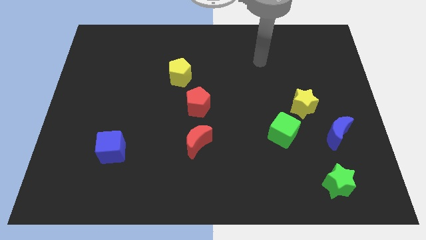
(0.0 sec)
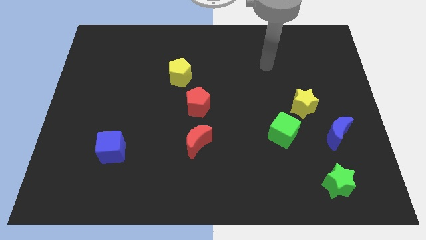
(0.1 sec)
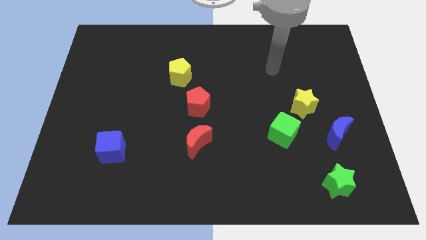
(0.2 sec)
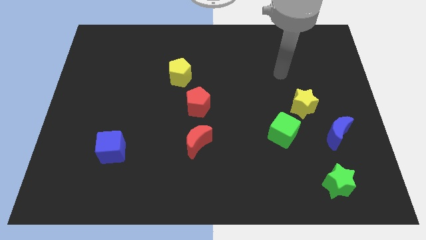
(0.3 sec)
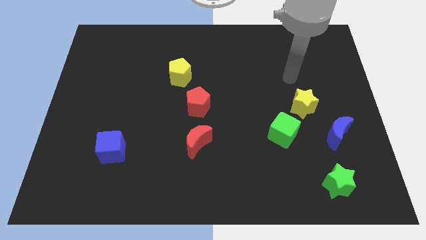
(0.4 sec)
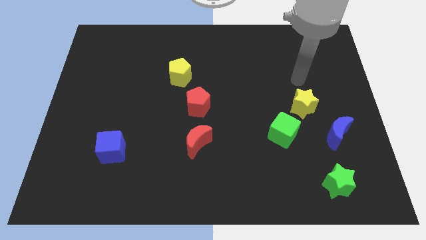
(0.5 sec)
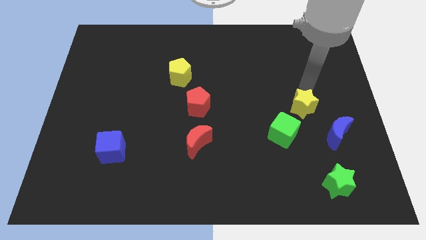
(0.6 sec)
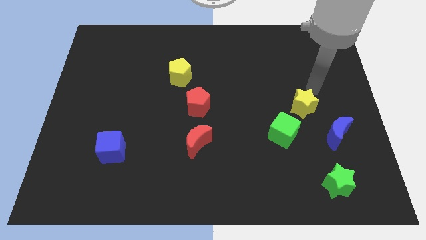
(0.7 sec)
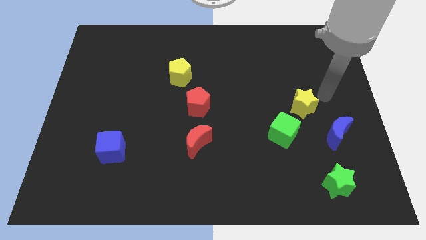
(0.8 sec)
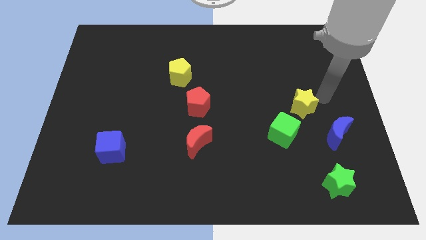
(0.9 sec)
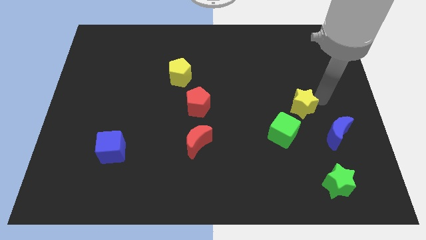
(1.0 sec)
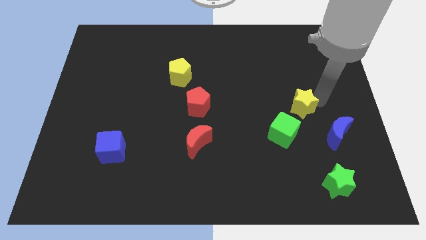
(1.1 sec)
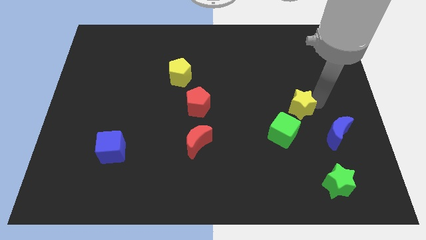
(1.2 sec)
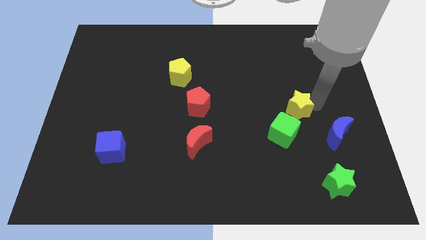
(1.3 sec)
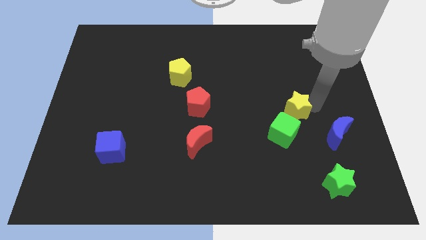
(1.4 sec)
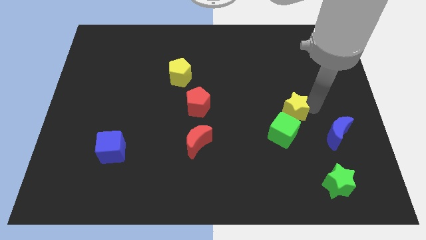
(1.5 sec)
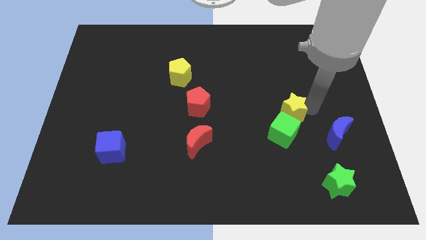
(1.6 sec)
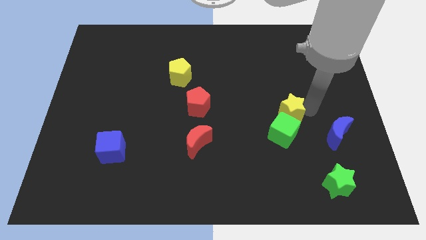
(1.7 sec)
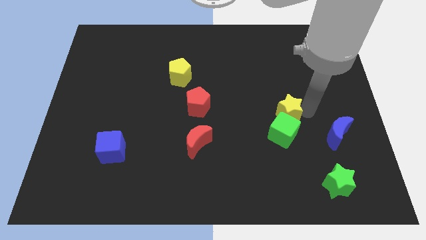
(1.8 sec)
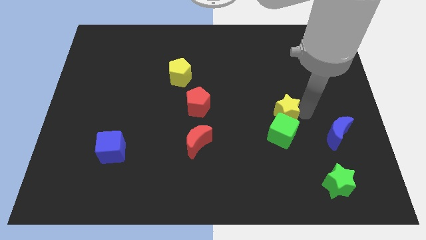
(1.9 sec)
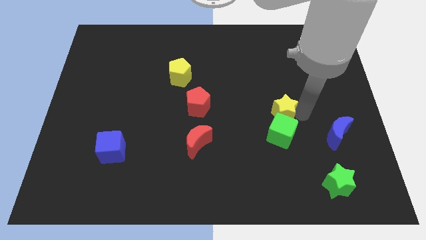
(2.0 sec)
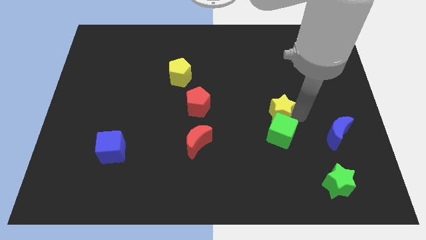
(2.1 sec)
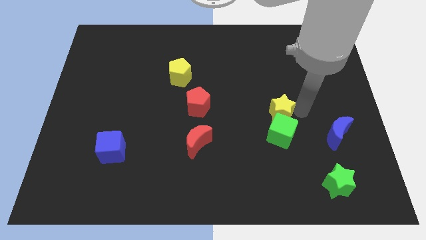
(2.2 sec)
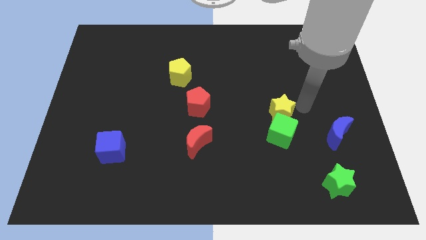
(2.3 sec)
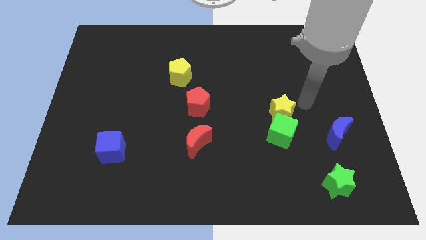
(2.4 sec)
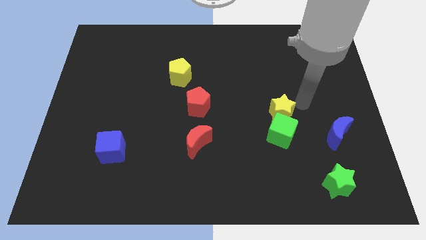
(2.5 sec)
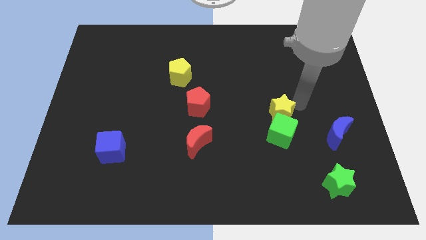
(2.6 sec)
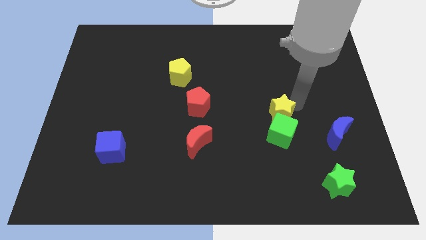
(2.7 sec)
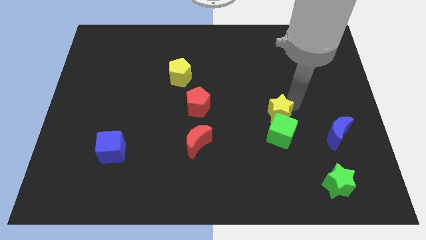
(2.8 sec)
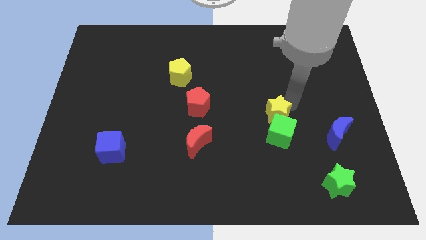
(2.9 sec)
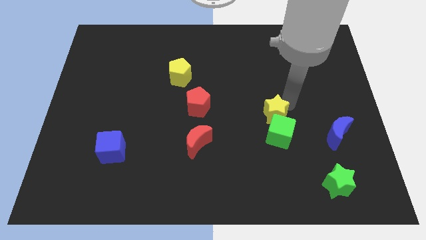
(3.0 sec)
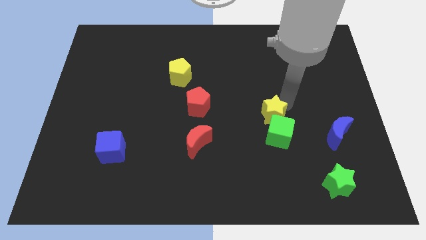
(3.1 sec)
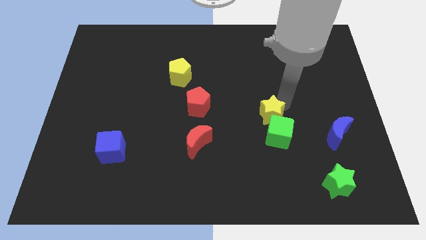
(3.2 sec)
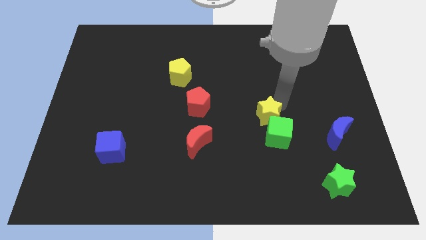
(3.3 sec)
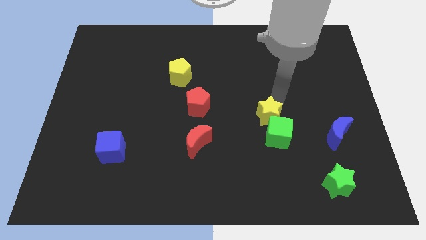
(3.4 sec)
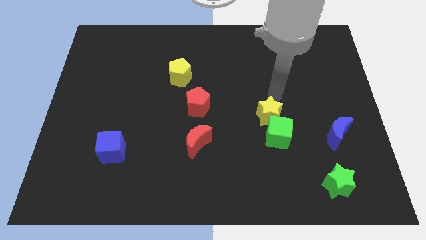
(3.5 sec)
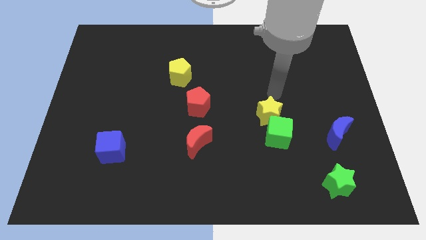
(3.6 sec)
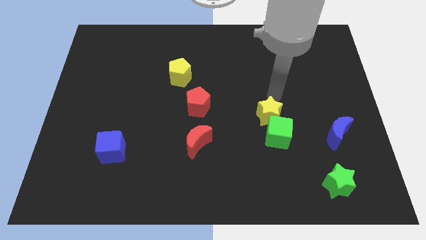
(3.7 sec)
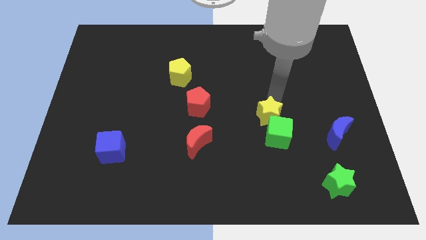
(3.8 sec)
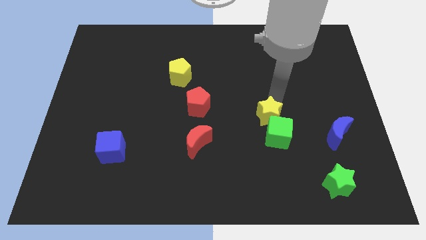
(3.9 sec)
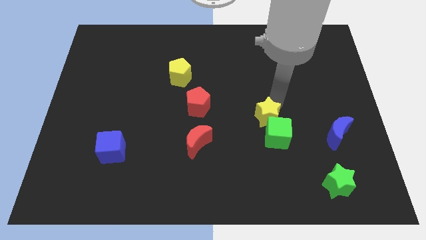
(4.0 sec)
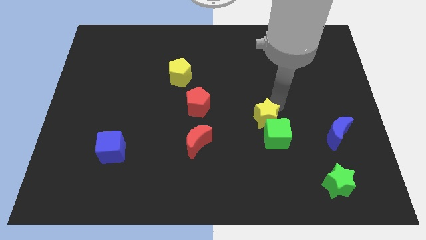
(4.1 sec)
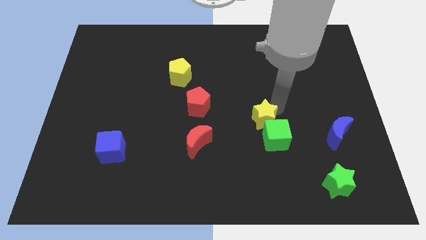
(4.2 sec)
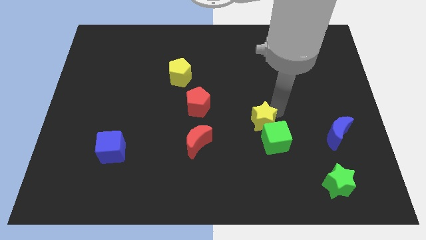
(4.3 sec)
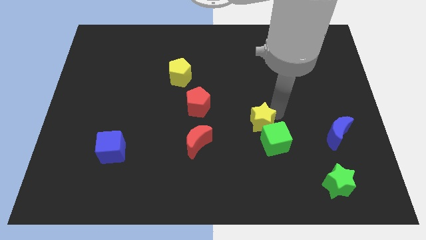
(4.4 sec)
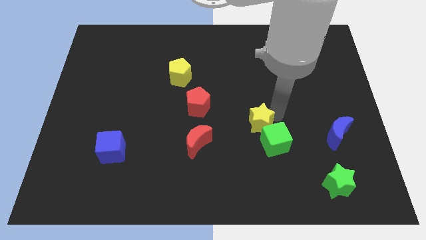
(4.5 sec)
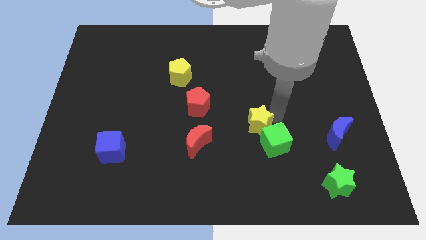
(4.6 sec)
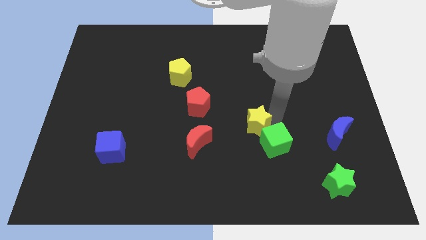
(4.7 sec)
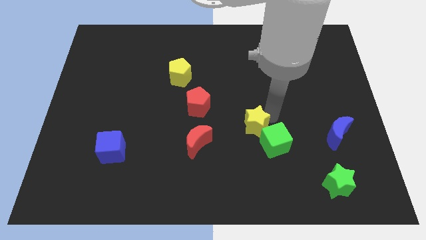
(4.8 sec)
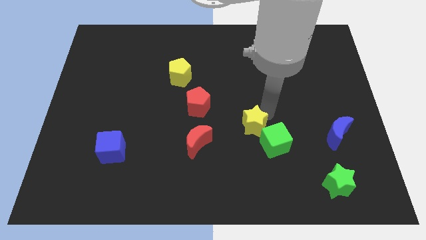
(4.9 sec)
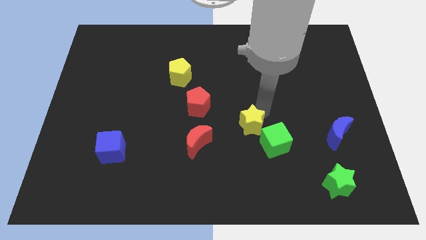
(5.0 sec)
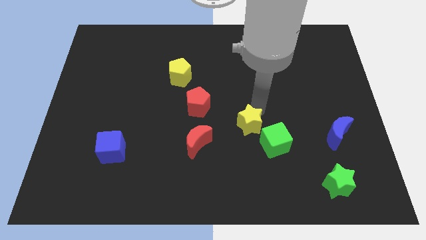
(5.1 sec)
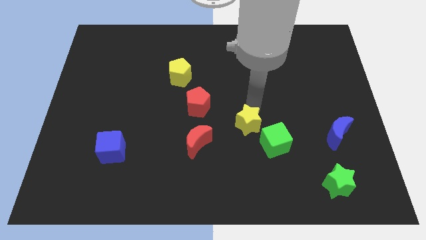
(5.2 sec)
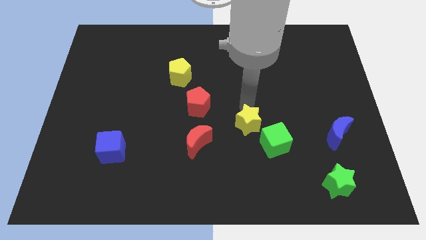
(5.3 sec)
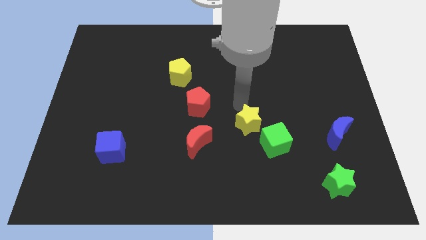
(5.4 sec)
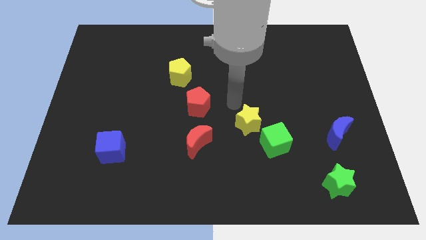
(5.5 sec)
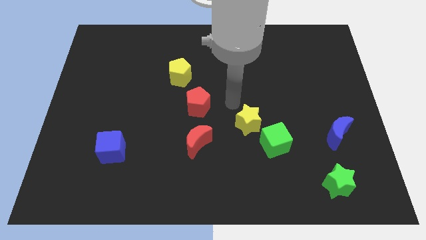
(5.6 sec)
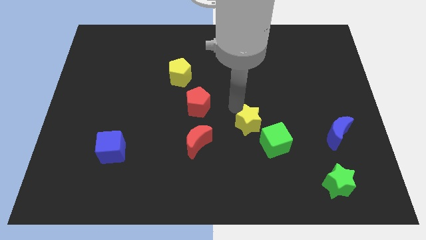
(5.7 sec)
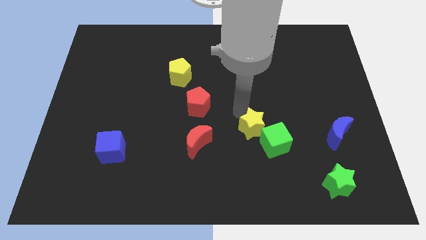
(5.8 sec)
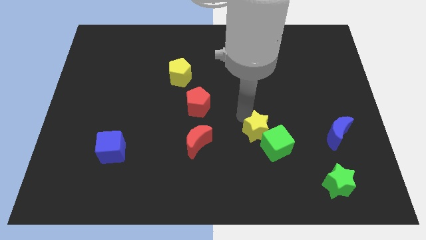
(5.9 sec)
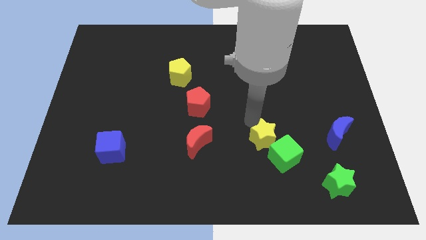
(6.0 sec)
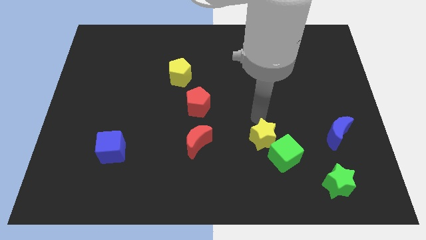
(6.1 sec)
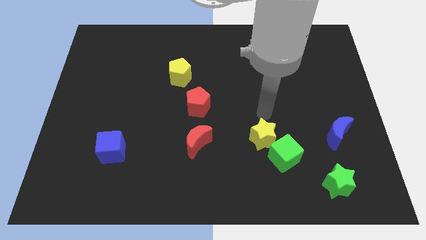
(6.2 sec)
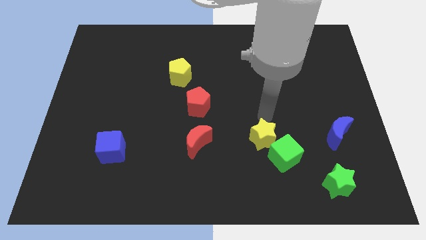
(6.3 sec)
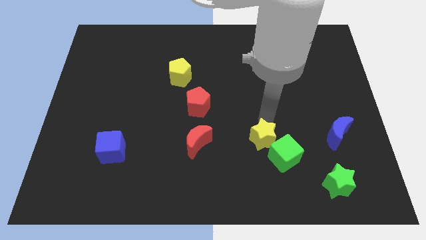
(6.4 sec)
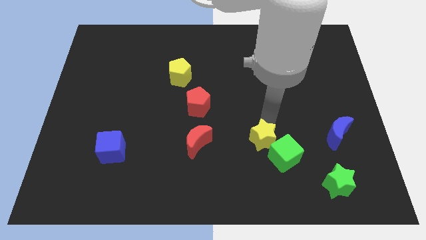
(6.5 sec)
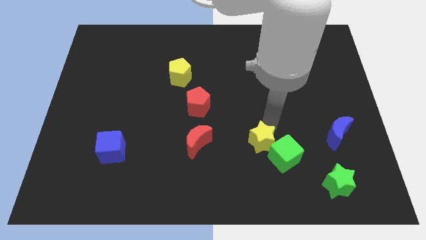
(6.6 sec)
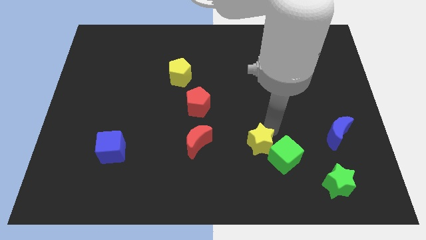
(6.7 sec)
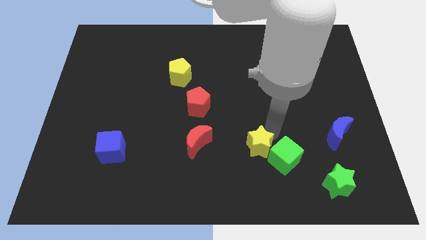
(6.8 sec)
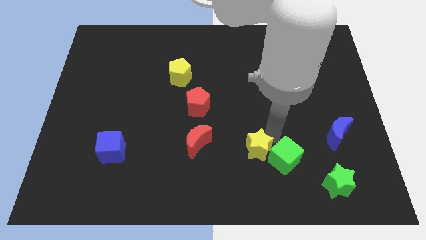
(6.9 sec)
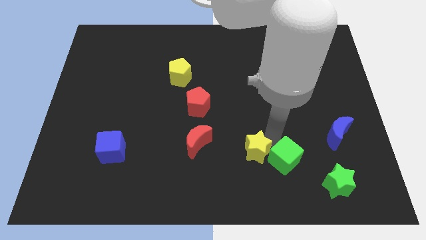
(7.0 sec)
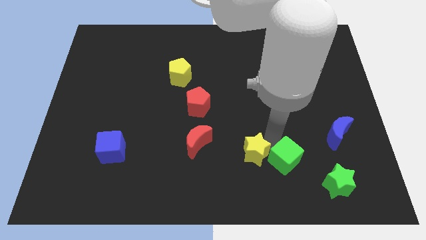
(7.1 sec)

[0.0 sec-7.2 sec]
push the yellow star diagonally down and to the left of the green cube
